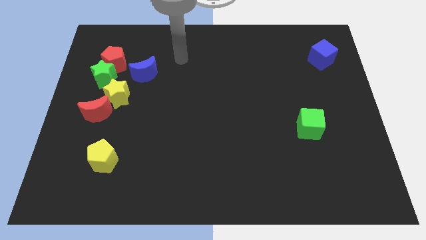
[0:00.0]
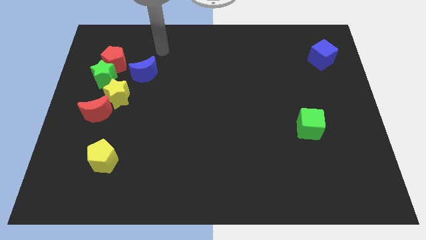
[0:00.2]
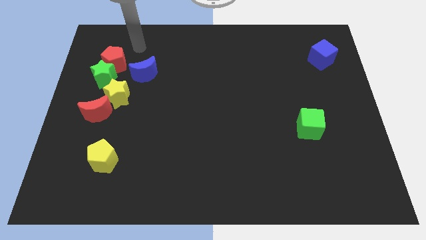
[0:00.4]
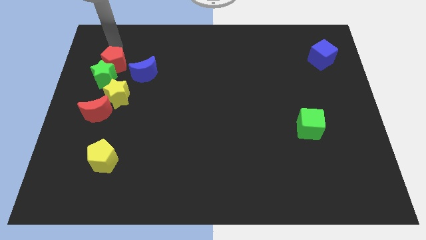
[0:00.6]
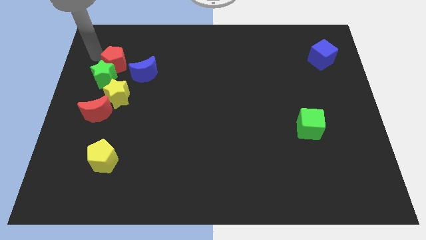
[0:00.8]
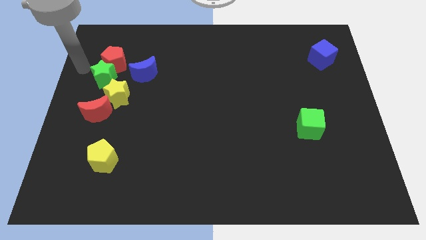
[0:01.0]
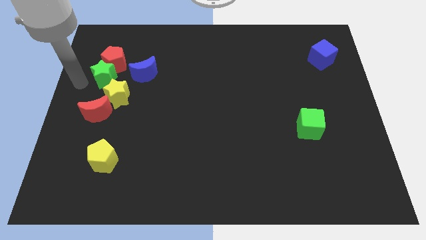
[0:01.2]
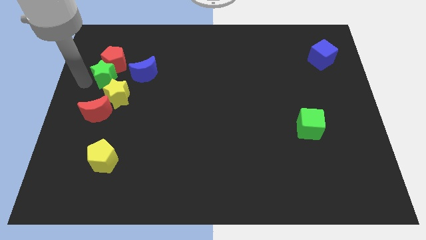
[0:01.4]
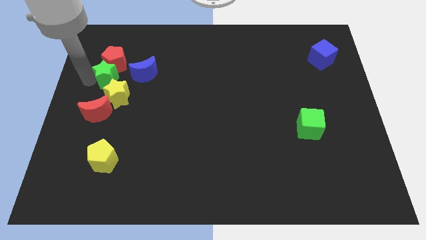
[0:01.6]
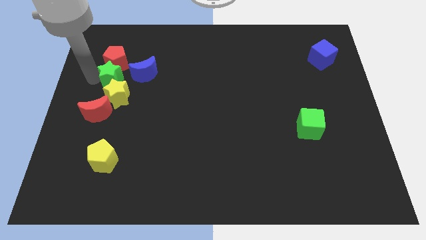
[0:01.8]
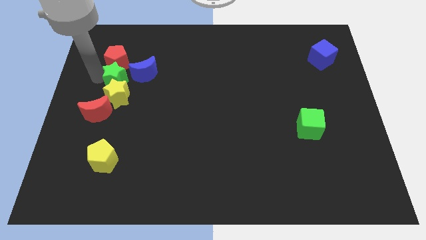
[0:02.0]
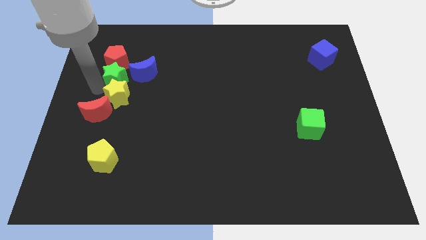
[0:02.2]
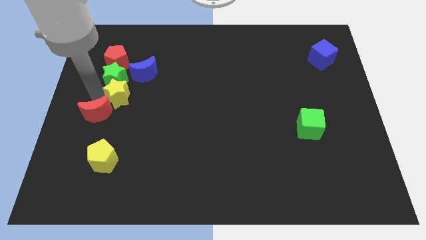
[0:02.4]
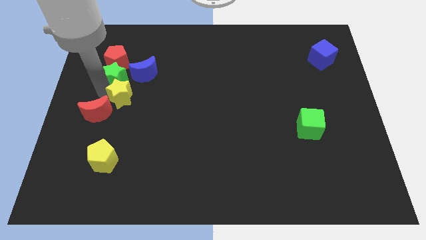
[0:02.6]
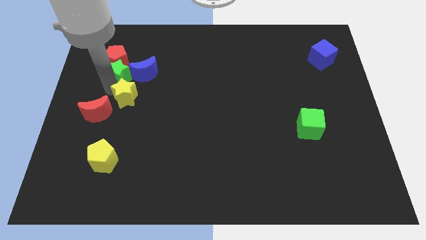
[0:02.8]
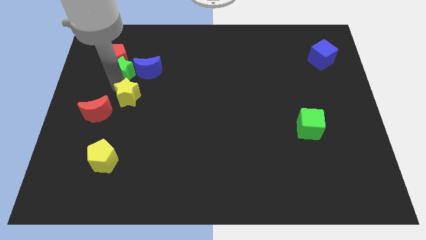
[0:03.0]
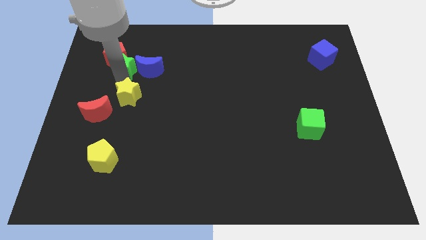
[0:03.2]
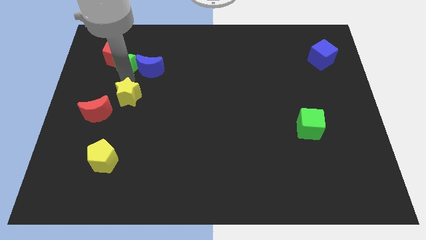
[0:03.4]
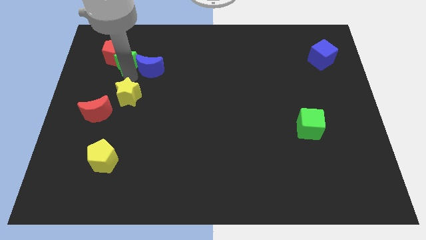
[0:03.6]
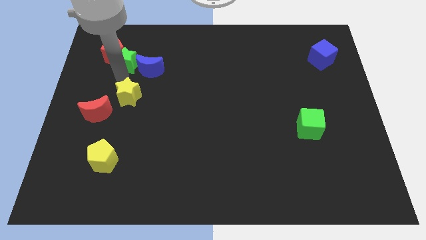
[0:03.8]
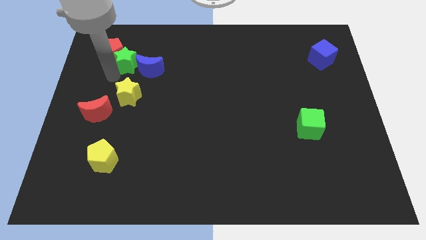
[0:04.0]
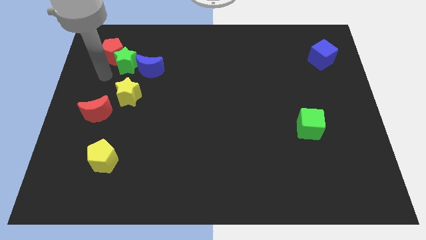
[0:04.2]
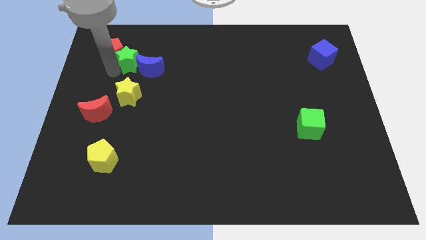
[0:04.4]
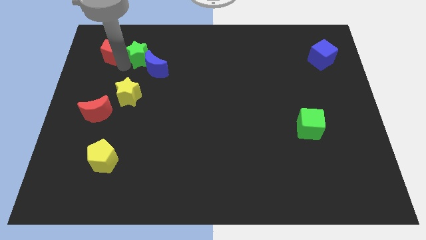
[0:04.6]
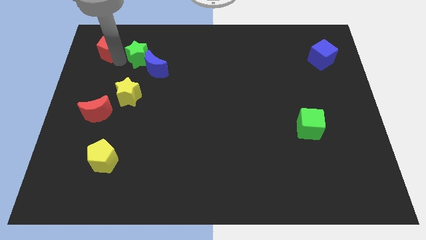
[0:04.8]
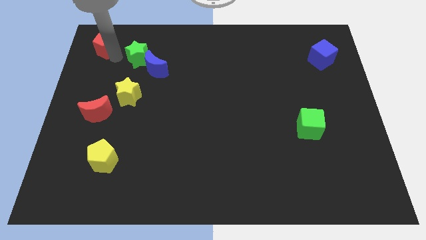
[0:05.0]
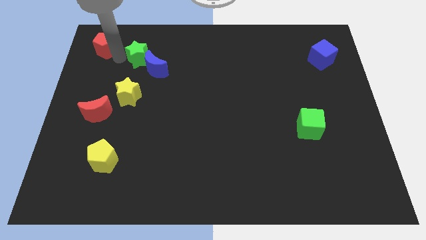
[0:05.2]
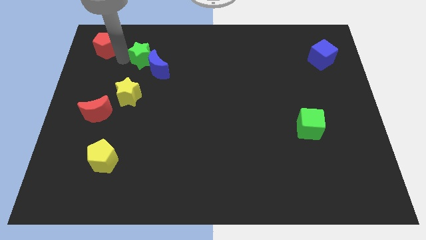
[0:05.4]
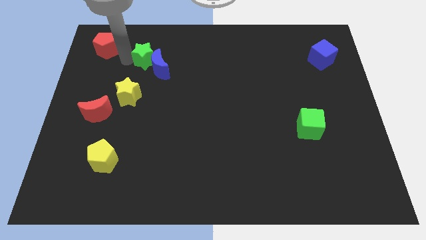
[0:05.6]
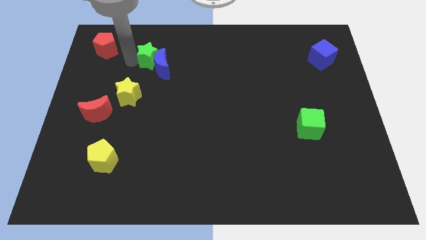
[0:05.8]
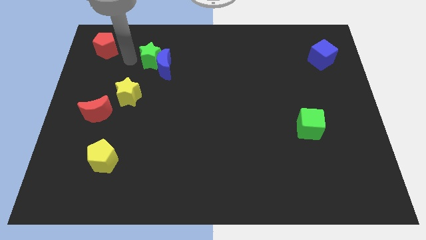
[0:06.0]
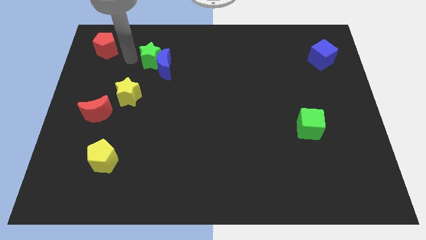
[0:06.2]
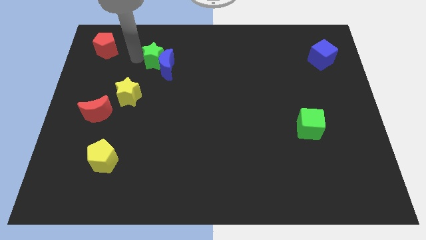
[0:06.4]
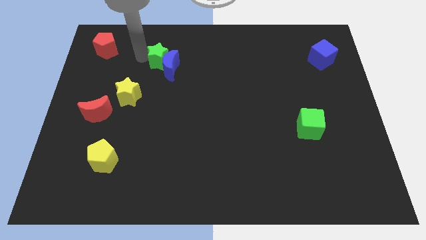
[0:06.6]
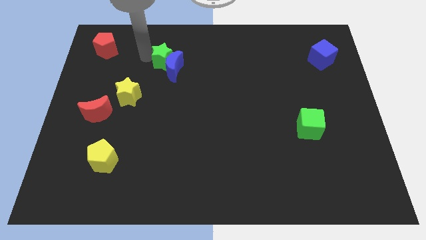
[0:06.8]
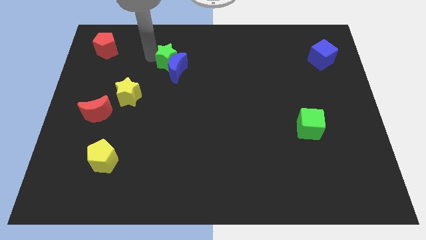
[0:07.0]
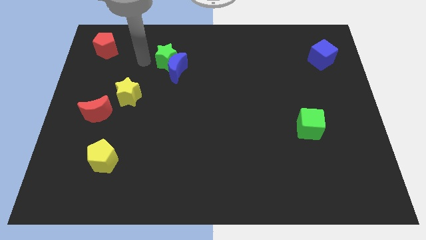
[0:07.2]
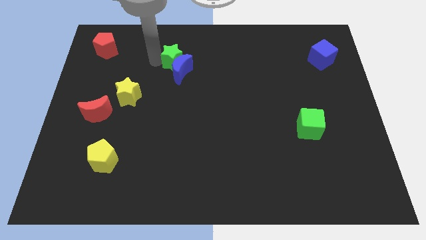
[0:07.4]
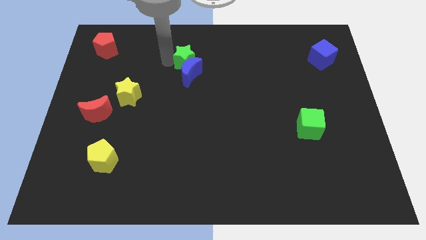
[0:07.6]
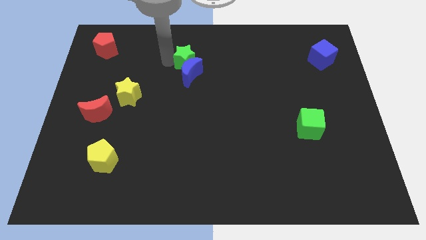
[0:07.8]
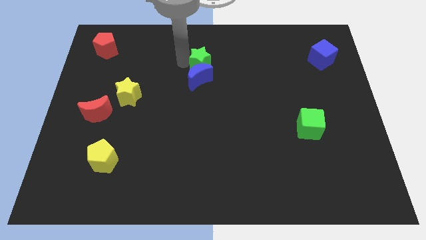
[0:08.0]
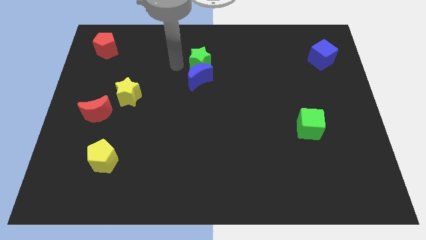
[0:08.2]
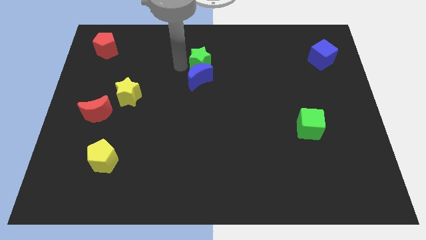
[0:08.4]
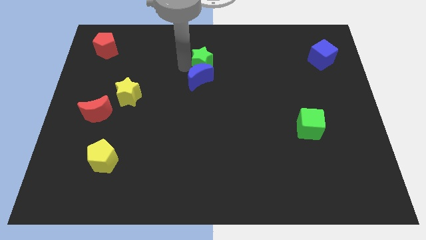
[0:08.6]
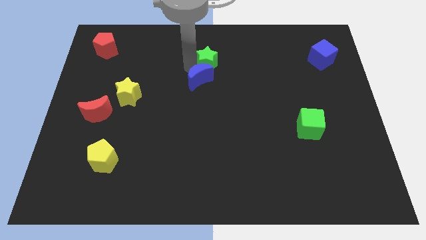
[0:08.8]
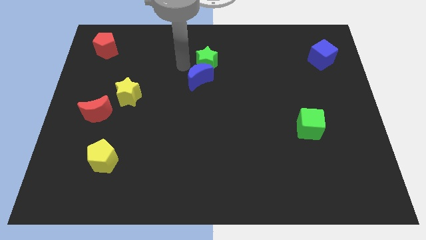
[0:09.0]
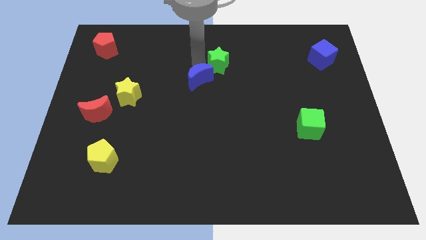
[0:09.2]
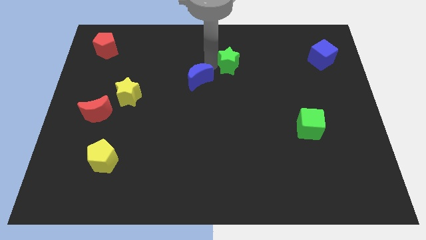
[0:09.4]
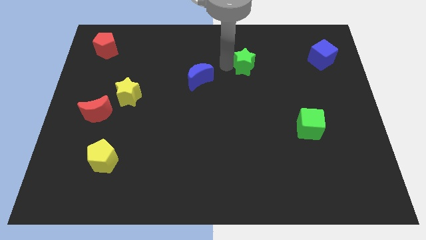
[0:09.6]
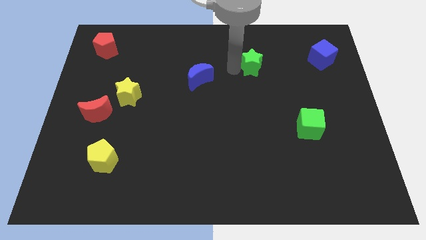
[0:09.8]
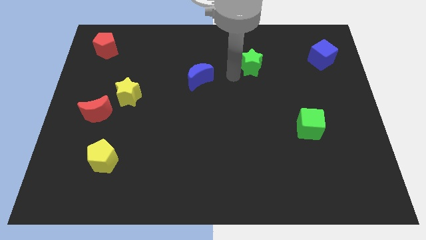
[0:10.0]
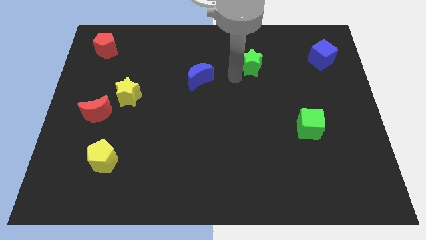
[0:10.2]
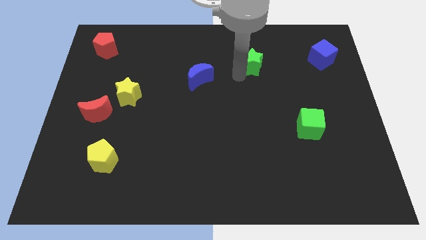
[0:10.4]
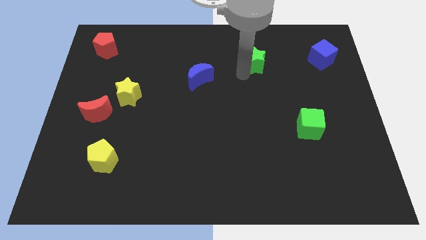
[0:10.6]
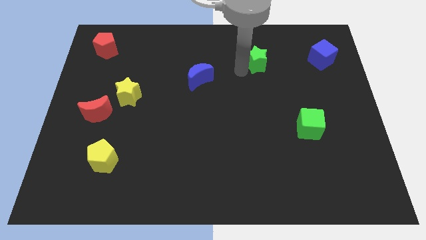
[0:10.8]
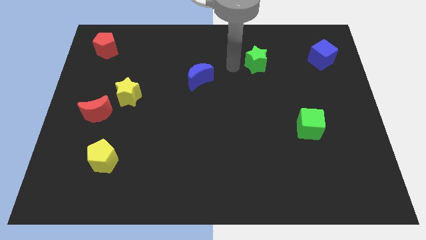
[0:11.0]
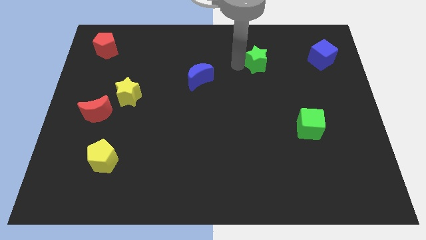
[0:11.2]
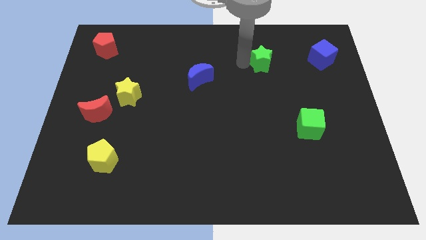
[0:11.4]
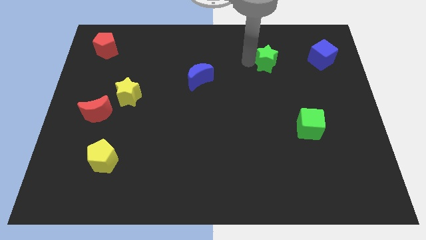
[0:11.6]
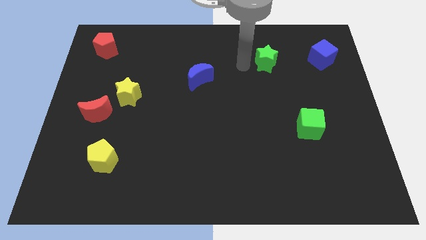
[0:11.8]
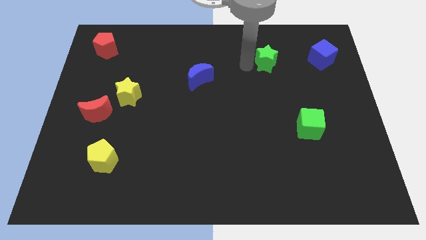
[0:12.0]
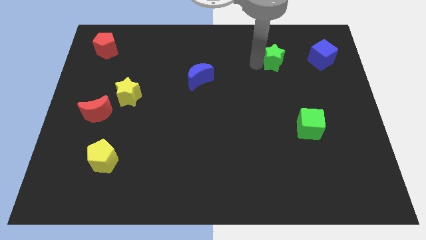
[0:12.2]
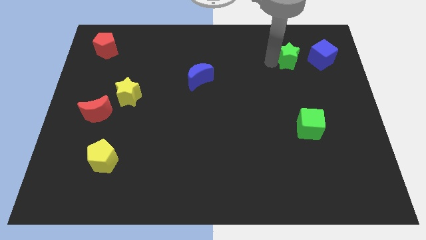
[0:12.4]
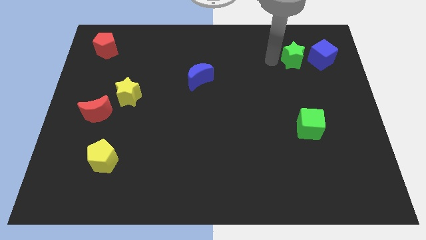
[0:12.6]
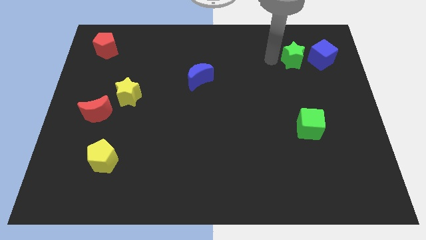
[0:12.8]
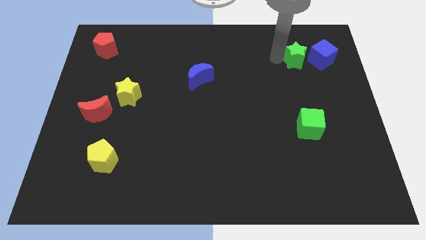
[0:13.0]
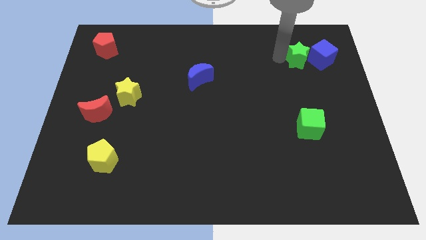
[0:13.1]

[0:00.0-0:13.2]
move the green star to the blue cube
